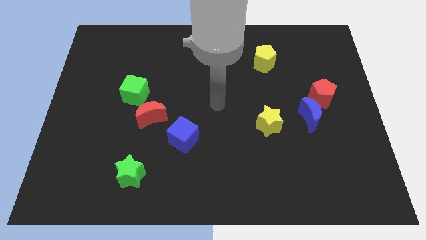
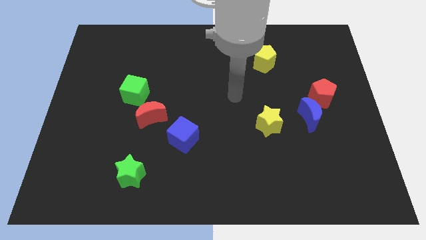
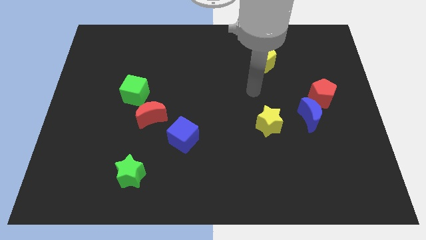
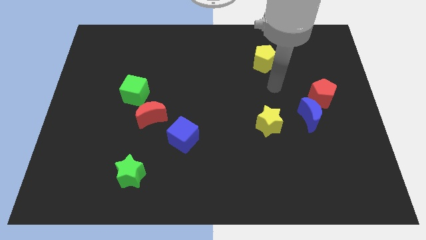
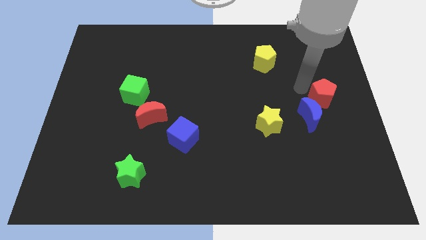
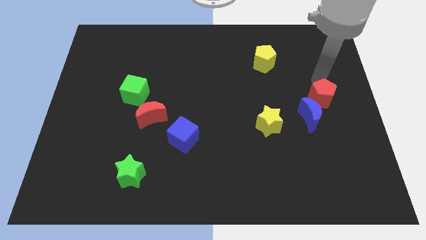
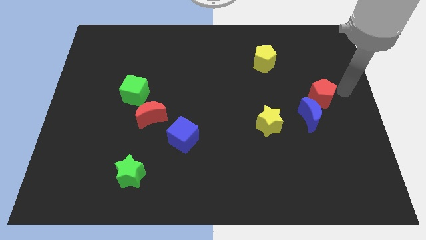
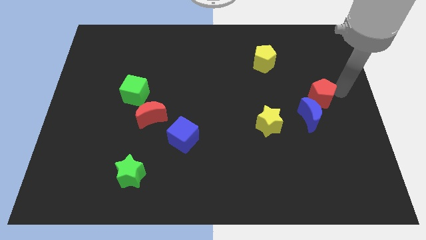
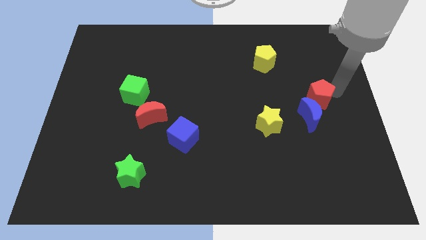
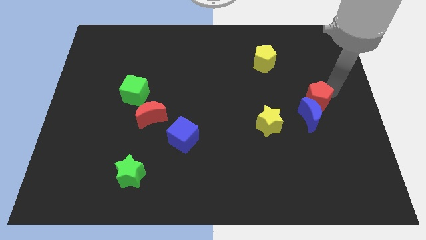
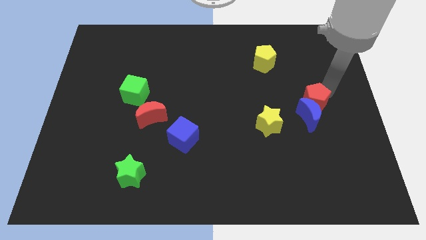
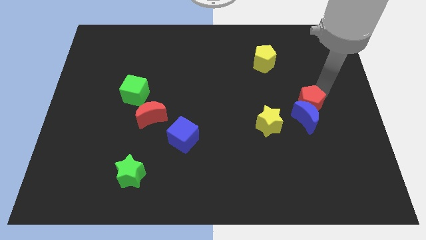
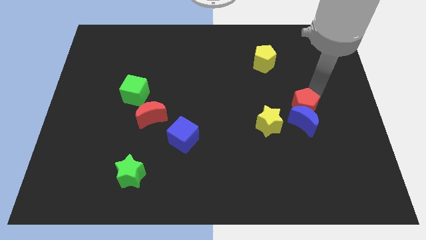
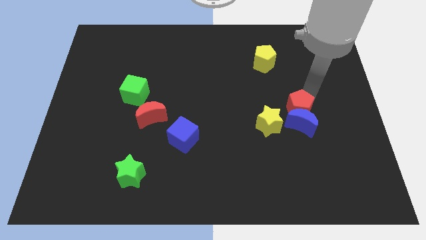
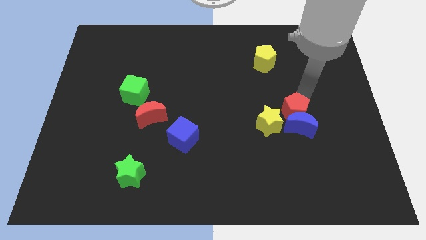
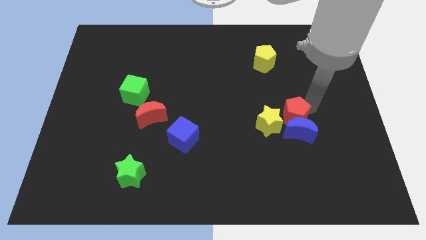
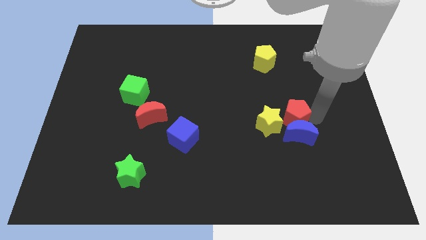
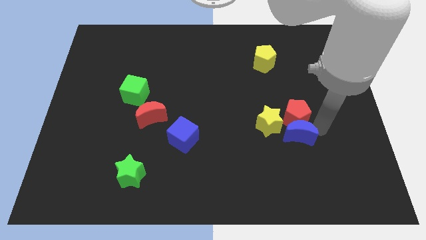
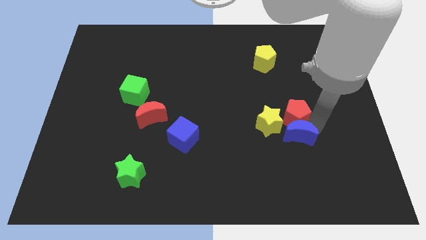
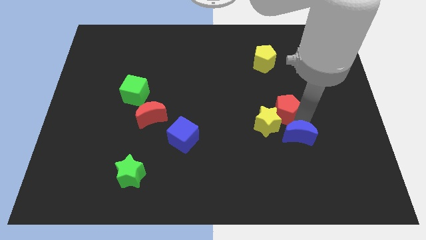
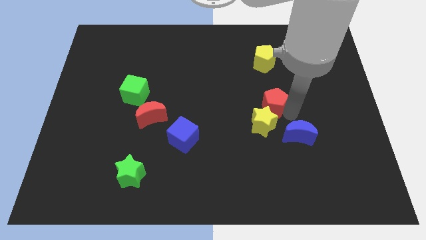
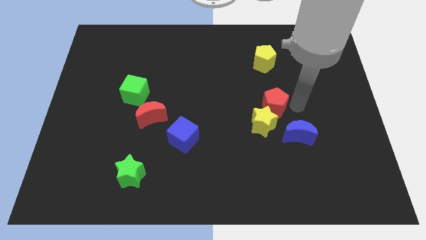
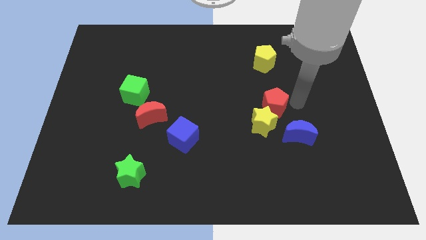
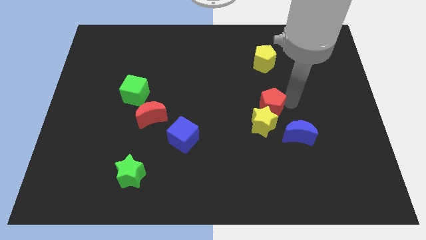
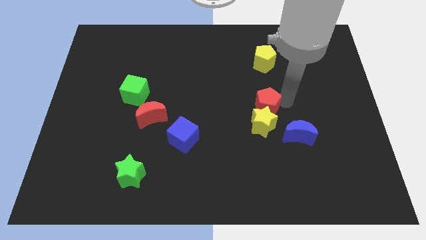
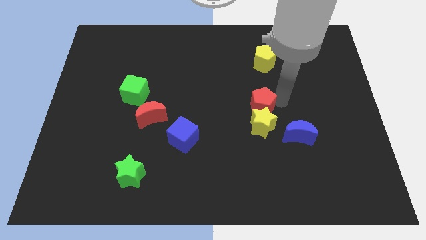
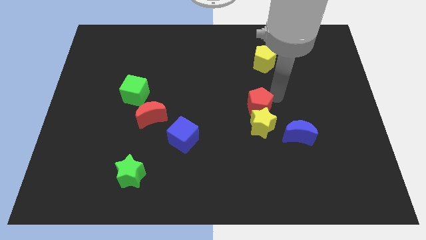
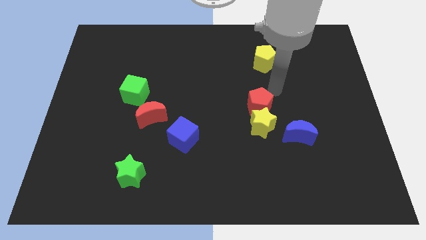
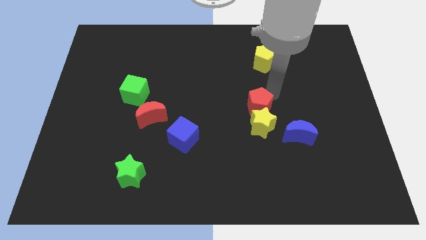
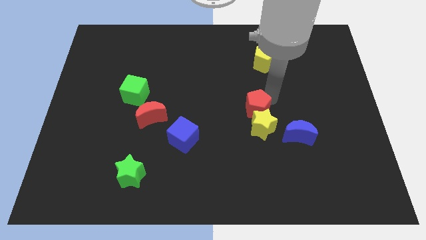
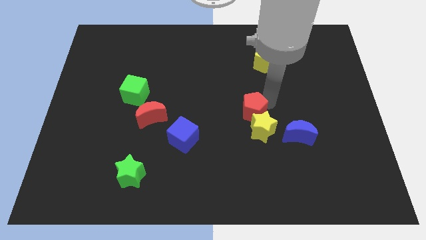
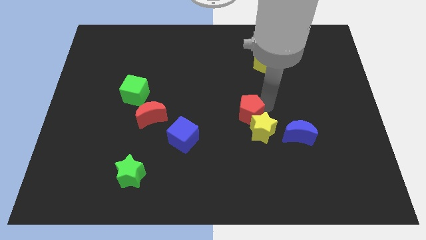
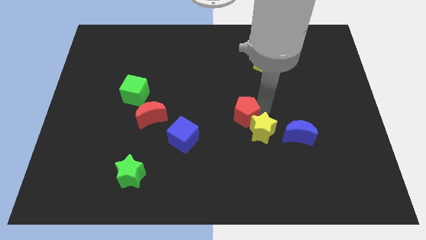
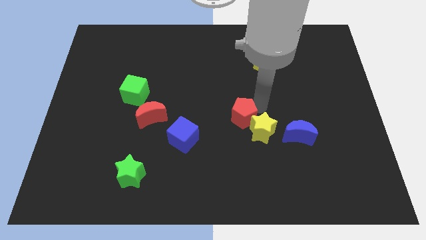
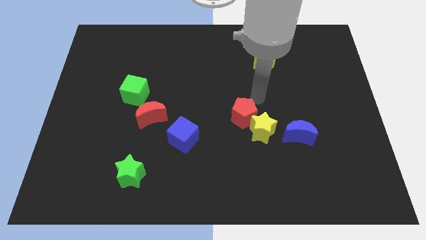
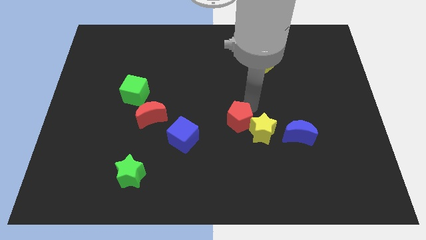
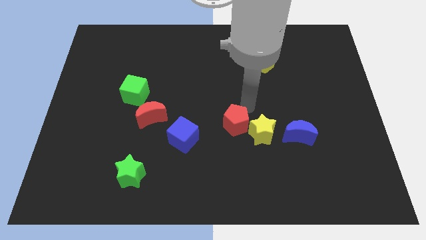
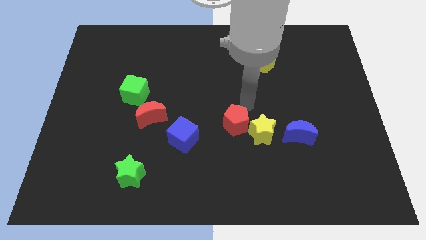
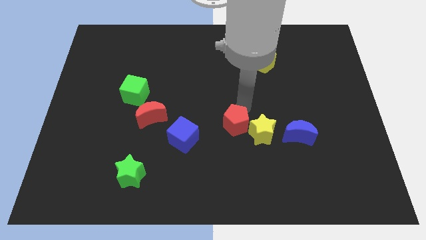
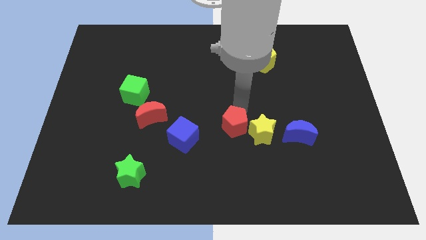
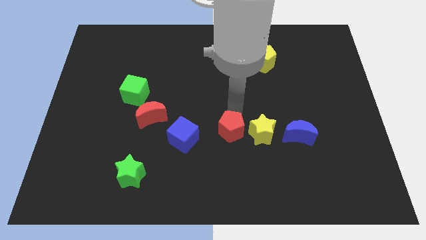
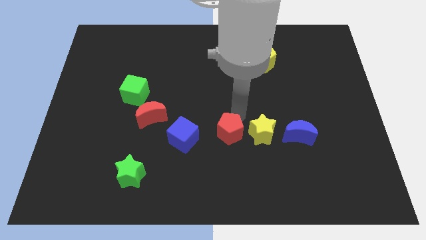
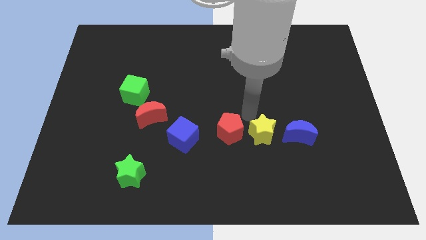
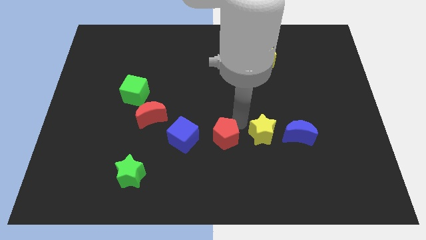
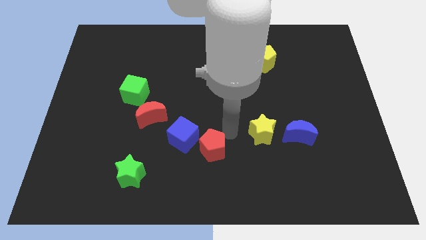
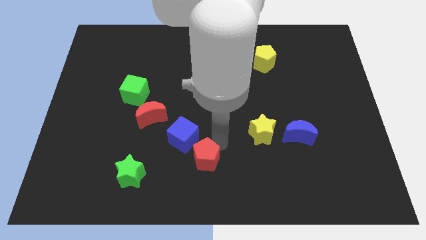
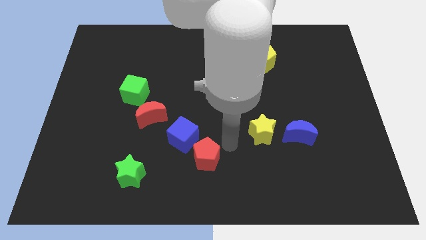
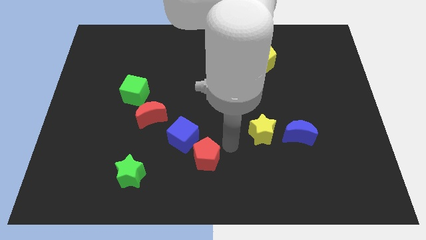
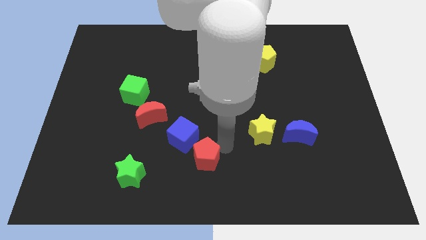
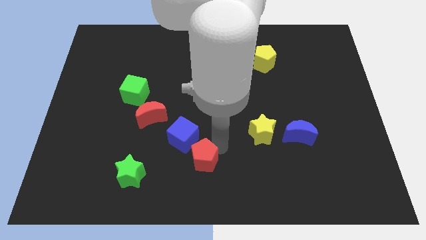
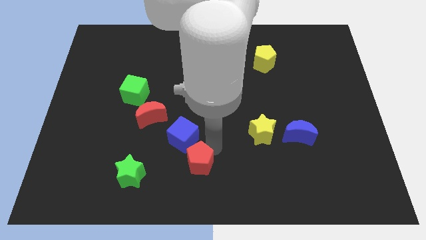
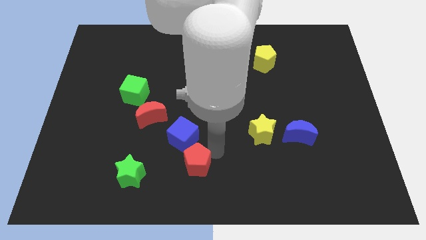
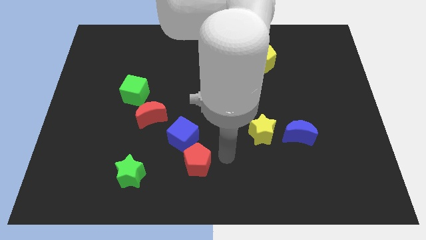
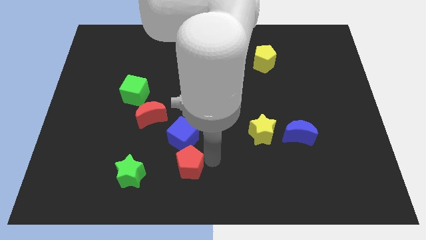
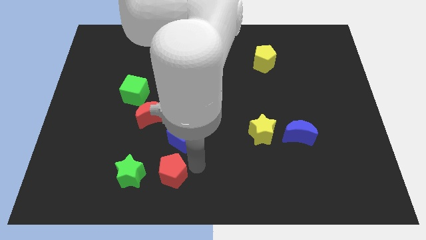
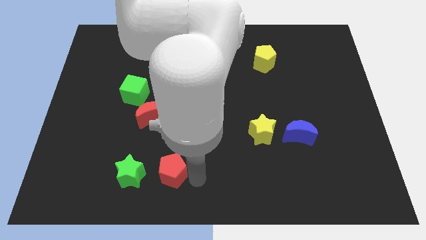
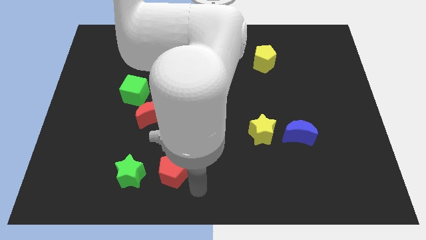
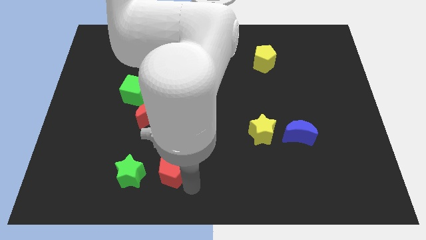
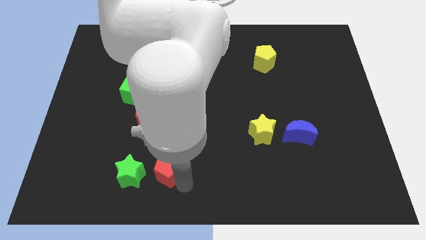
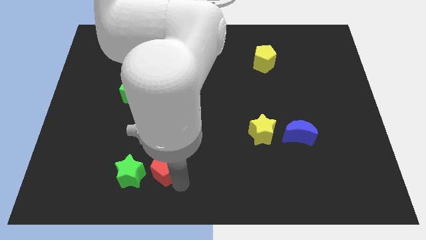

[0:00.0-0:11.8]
slide the red pentagon to the bottom of the red moon

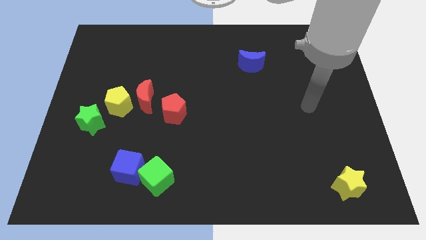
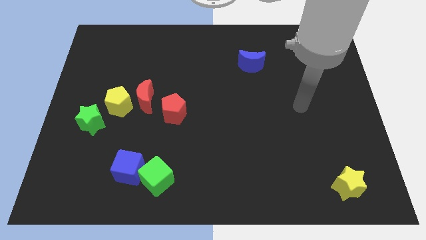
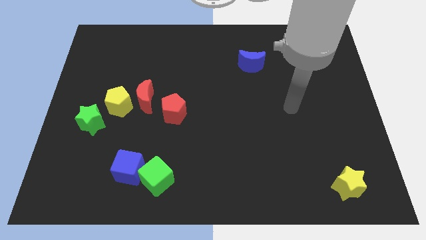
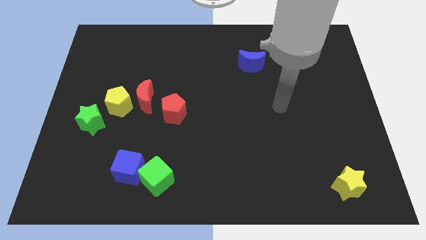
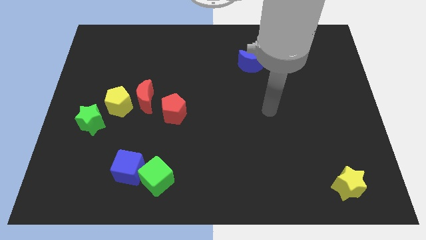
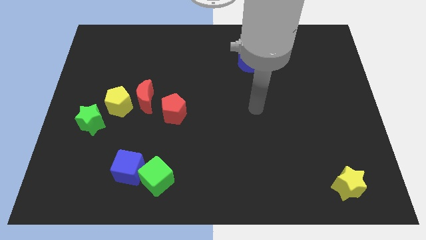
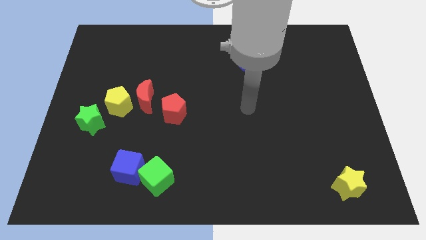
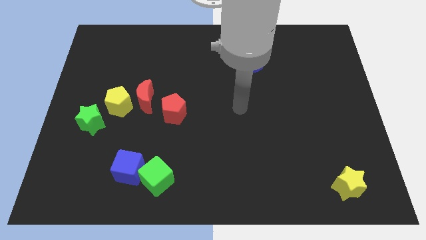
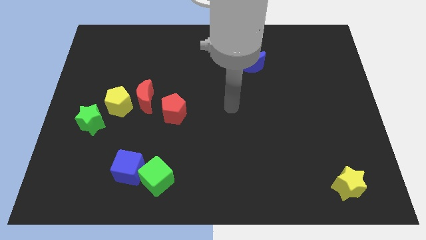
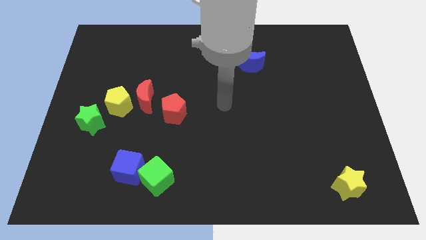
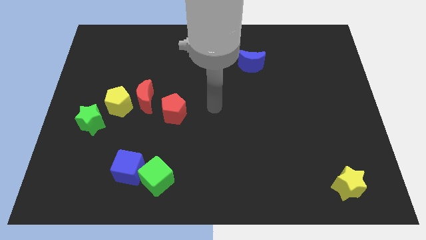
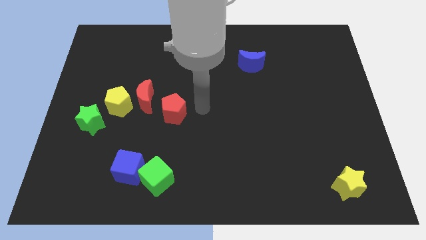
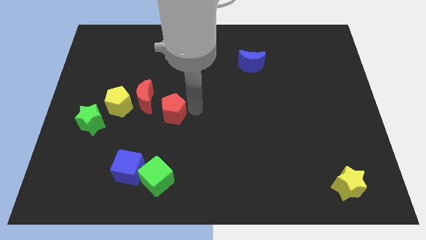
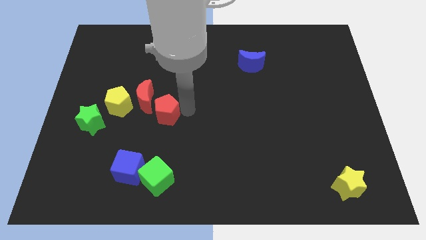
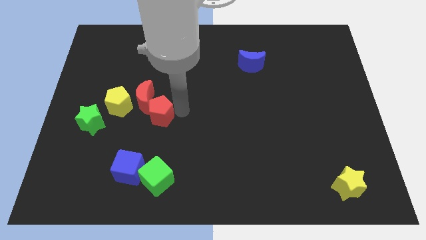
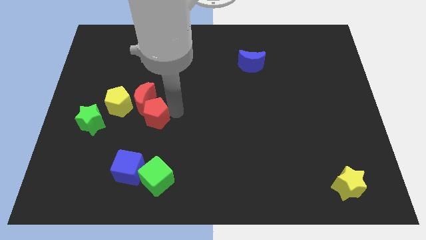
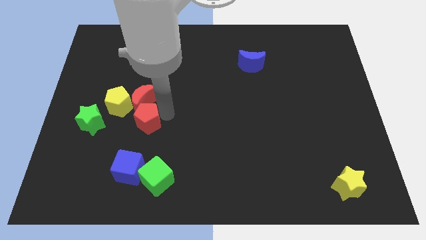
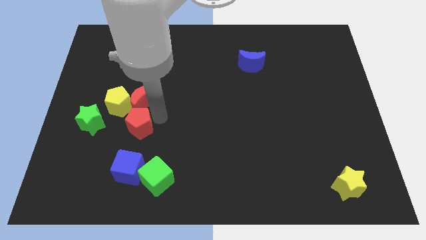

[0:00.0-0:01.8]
slide the red pentagon diagonally down and to the left of the red moon
